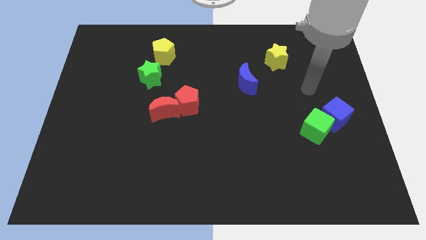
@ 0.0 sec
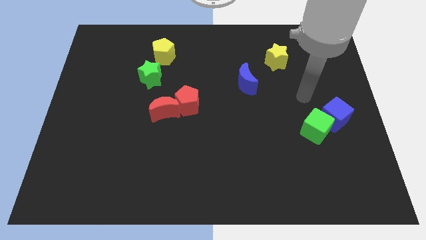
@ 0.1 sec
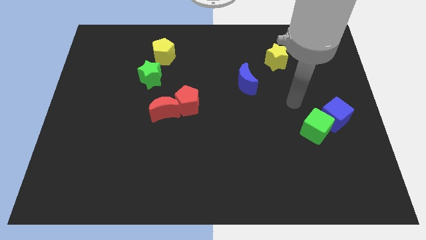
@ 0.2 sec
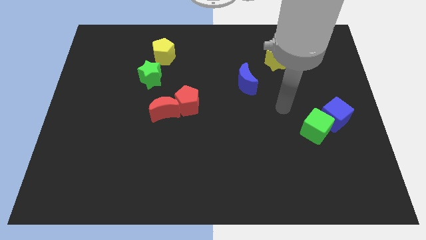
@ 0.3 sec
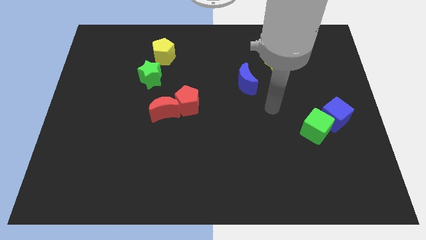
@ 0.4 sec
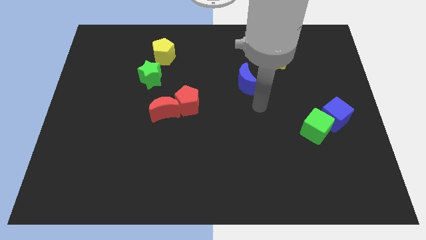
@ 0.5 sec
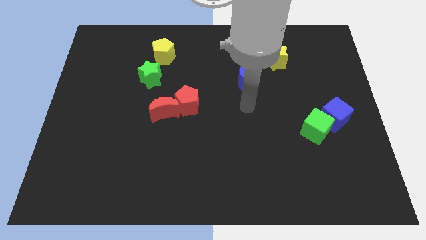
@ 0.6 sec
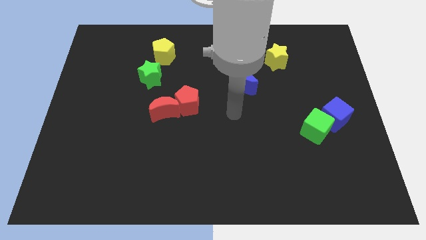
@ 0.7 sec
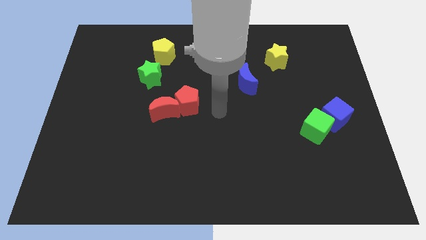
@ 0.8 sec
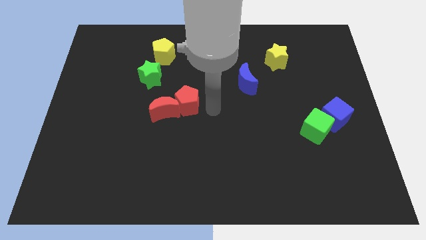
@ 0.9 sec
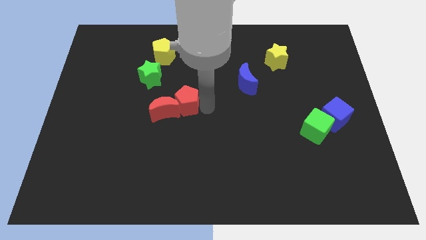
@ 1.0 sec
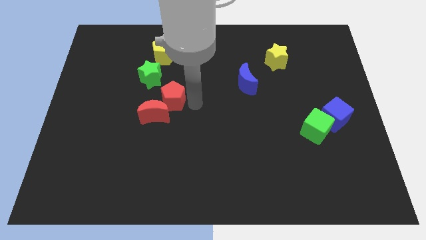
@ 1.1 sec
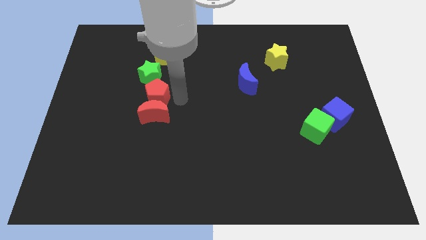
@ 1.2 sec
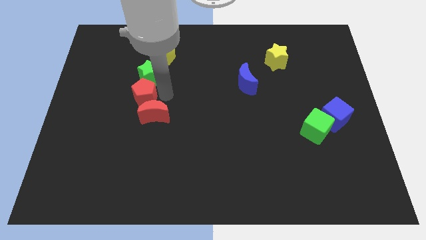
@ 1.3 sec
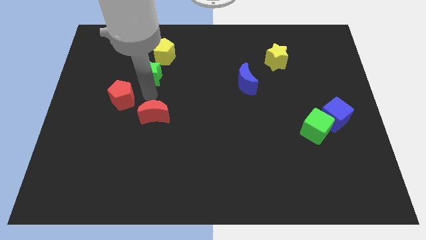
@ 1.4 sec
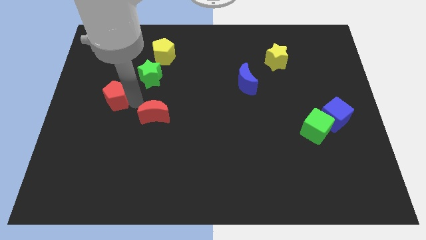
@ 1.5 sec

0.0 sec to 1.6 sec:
separate the red moon from the red pentagon

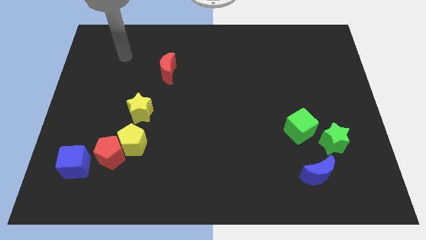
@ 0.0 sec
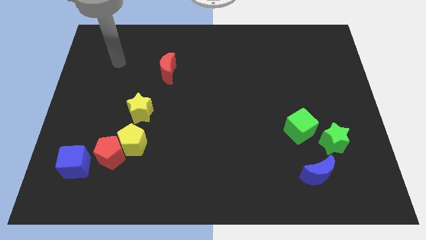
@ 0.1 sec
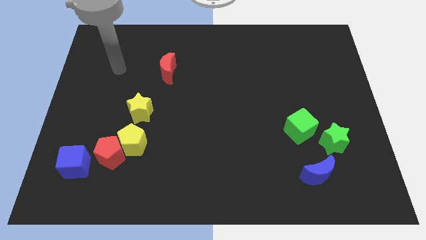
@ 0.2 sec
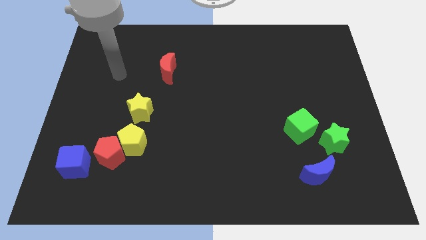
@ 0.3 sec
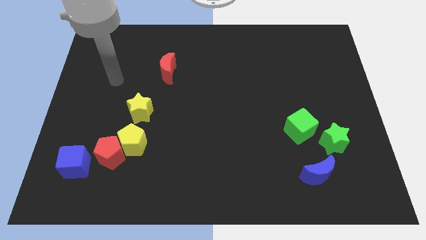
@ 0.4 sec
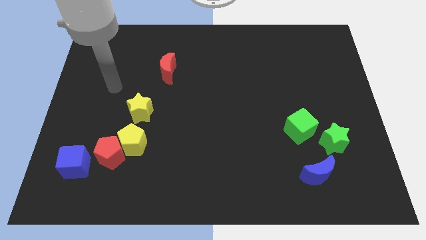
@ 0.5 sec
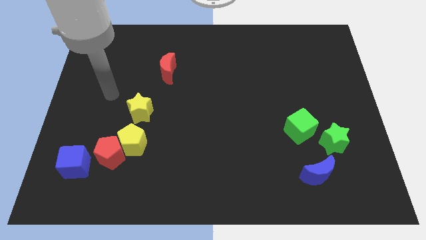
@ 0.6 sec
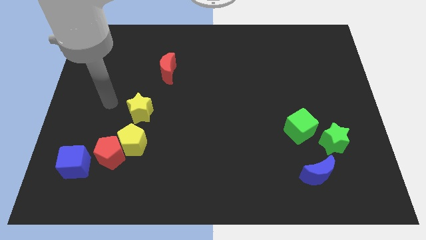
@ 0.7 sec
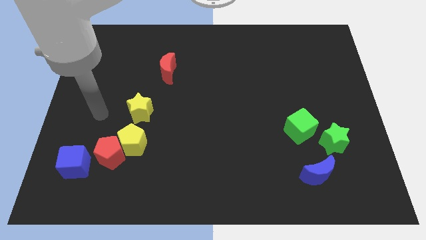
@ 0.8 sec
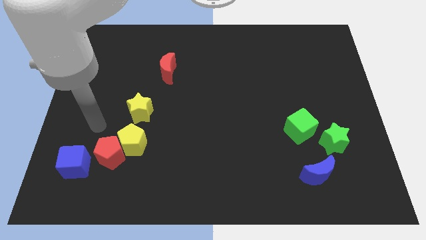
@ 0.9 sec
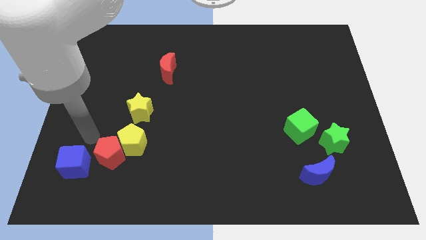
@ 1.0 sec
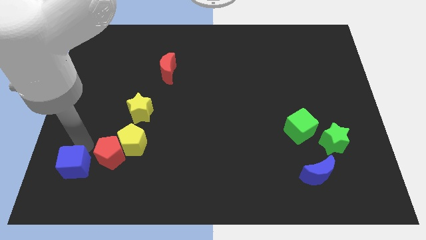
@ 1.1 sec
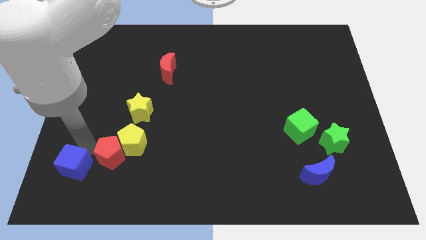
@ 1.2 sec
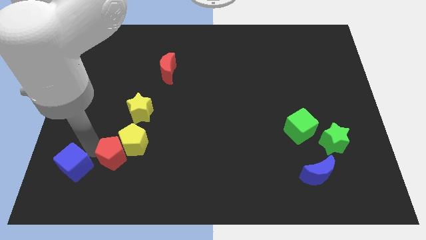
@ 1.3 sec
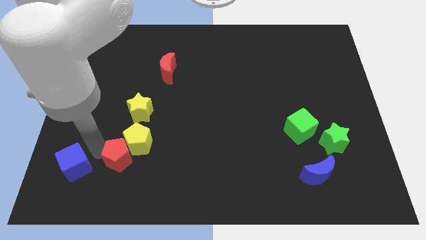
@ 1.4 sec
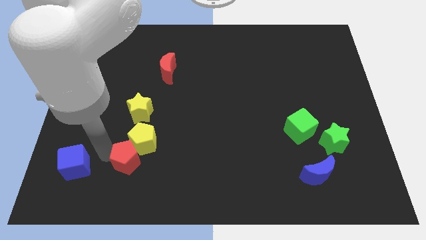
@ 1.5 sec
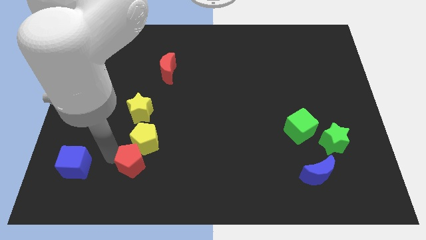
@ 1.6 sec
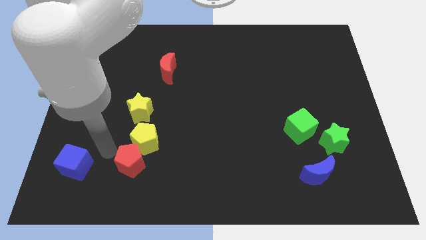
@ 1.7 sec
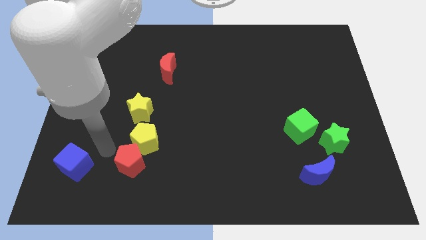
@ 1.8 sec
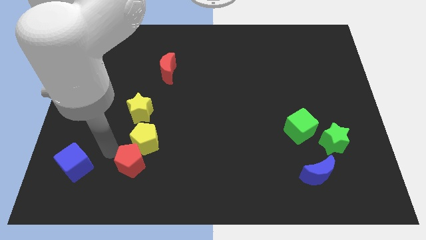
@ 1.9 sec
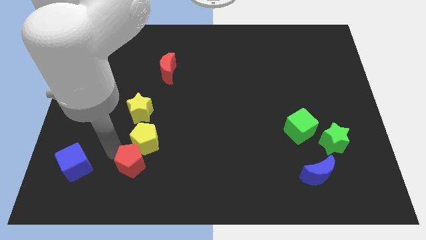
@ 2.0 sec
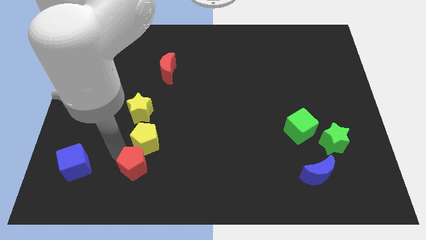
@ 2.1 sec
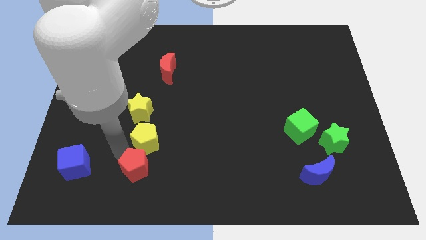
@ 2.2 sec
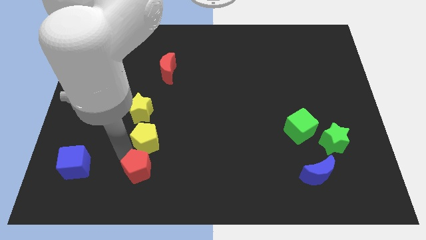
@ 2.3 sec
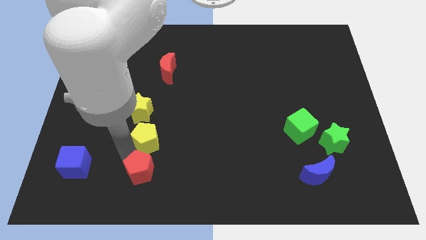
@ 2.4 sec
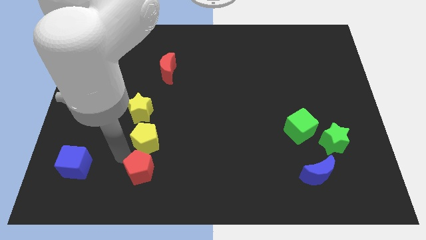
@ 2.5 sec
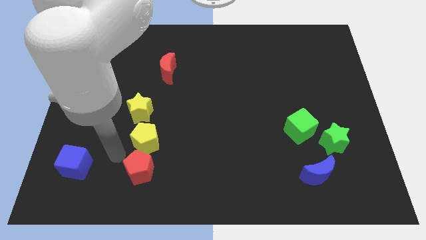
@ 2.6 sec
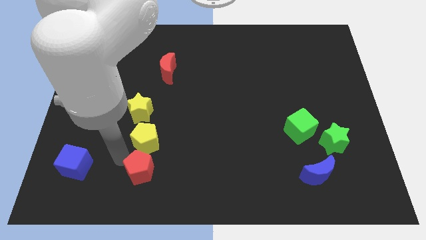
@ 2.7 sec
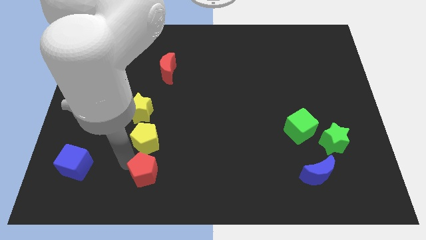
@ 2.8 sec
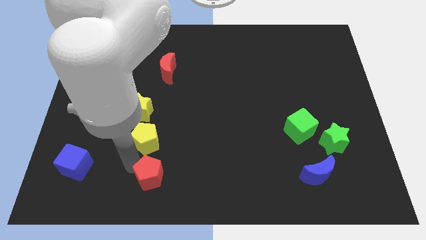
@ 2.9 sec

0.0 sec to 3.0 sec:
pull the red pentagon apart from the yellow pentagon and blue cube

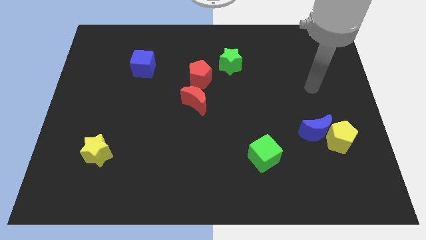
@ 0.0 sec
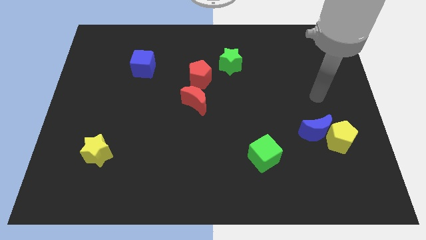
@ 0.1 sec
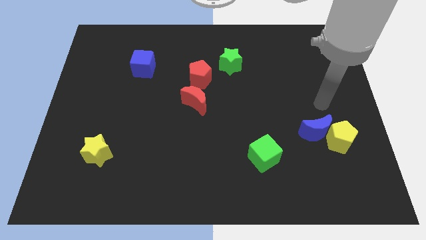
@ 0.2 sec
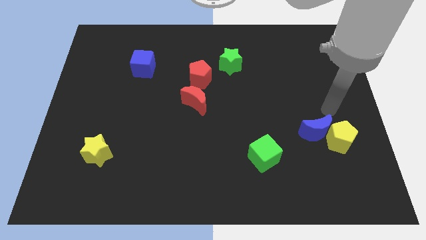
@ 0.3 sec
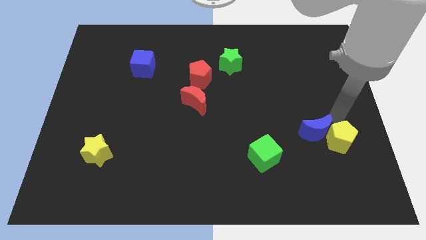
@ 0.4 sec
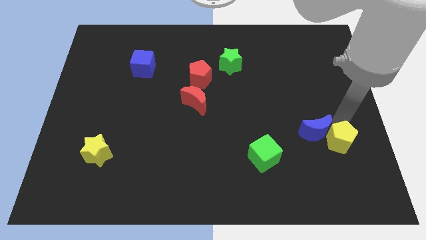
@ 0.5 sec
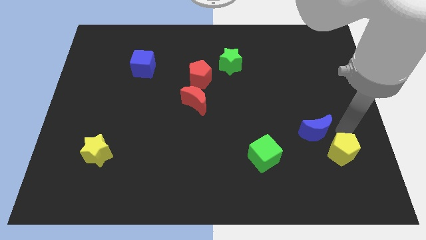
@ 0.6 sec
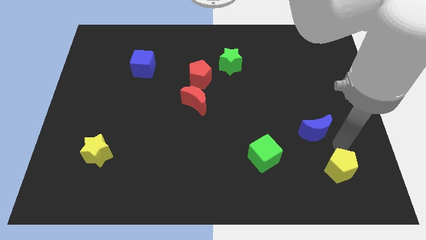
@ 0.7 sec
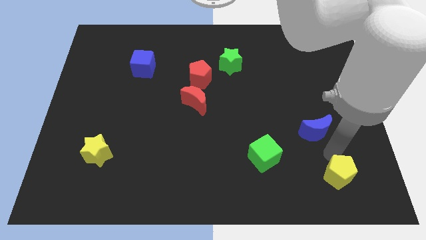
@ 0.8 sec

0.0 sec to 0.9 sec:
pull the blue moon apart from the yellow pentagon

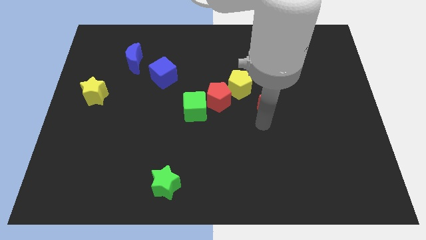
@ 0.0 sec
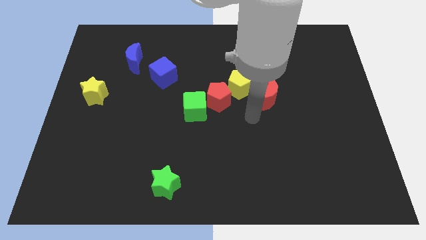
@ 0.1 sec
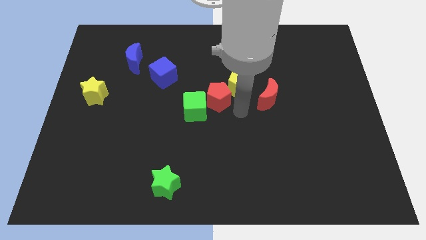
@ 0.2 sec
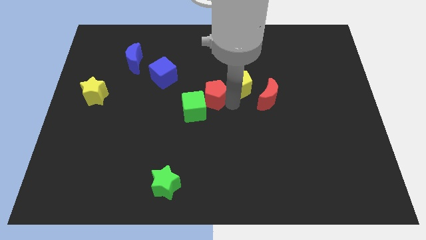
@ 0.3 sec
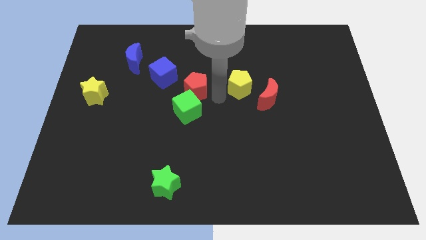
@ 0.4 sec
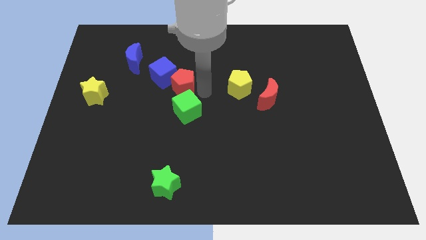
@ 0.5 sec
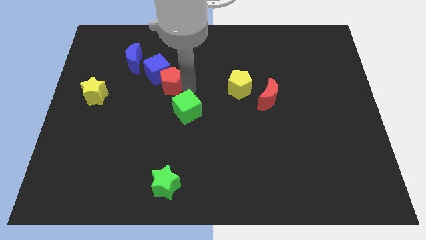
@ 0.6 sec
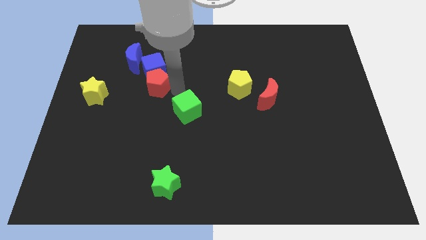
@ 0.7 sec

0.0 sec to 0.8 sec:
pull the green cube apart from the red pentagon

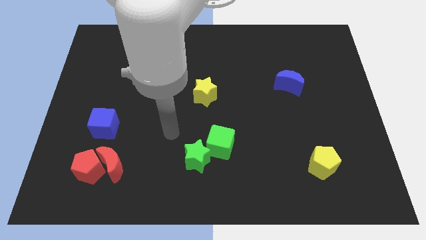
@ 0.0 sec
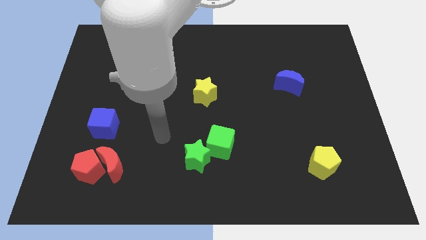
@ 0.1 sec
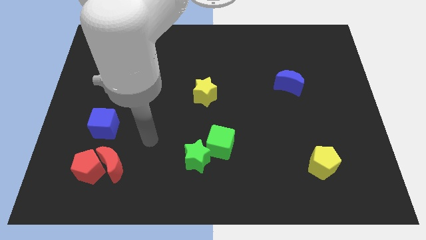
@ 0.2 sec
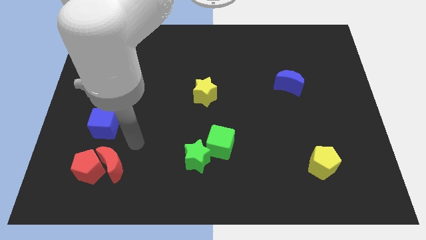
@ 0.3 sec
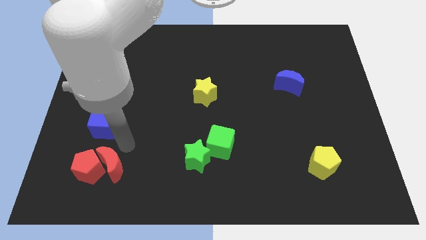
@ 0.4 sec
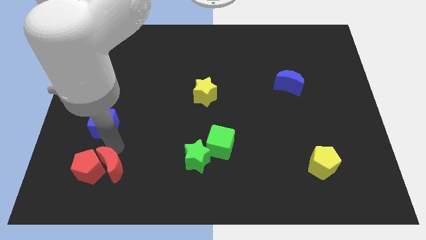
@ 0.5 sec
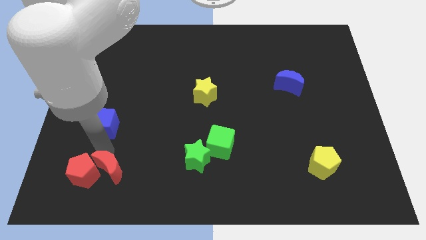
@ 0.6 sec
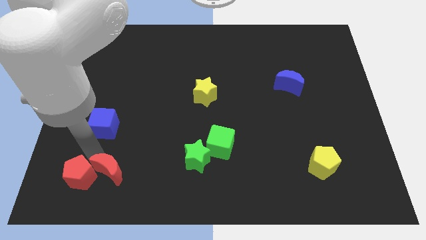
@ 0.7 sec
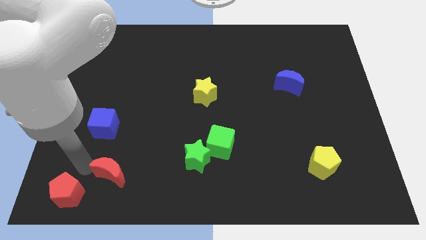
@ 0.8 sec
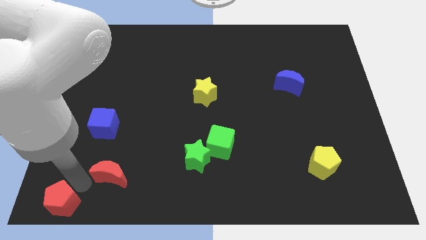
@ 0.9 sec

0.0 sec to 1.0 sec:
move the red moon away from the red pentagon

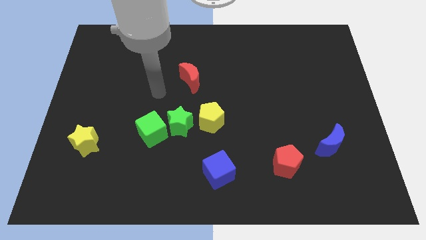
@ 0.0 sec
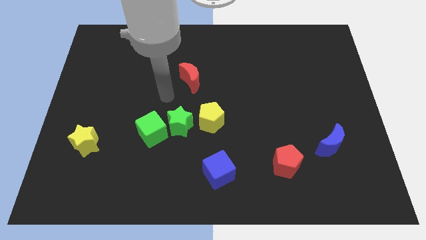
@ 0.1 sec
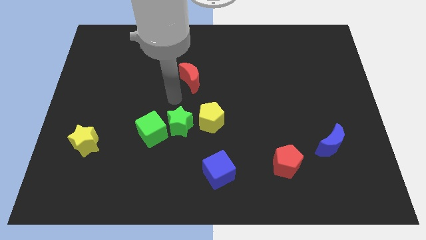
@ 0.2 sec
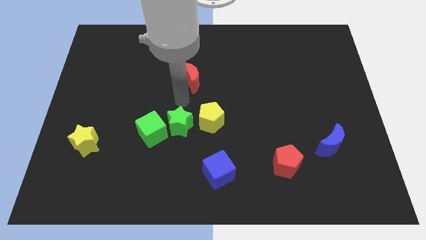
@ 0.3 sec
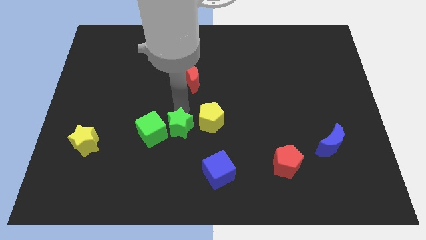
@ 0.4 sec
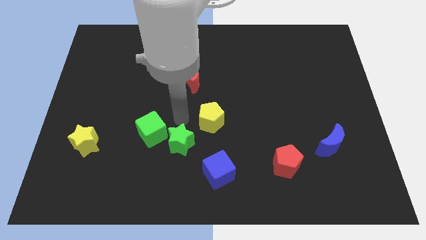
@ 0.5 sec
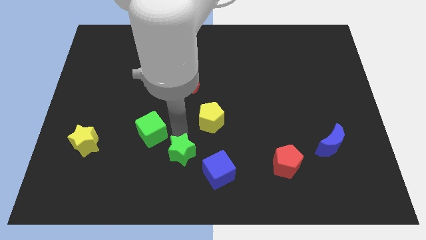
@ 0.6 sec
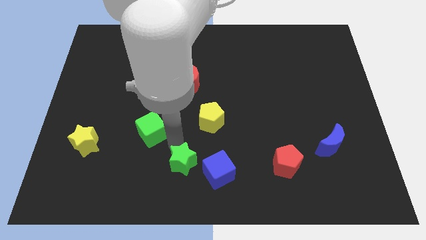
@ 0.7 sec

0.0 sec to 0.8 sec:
separate the green cube from the green star

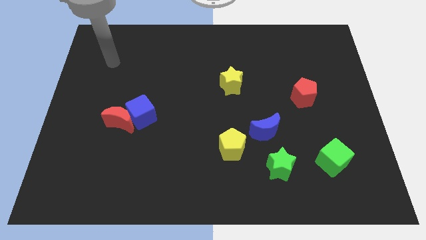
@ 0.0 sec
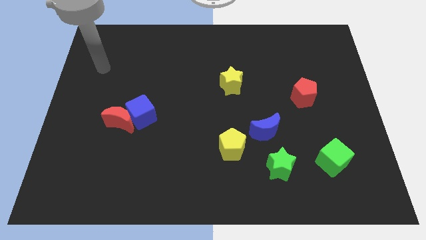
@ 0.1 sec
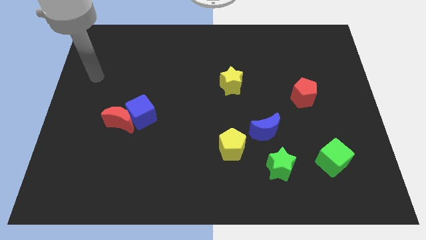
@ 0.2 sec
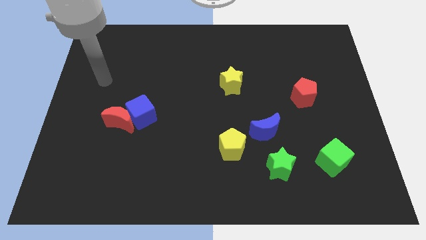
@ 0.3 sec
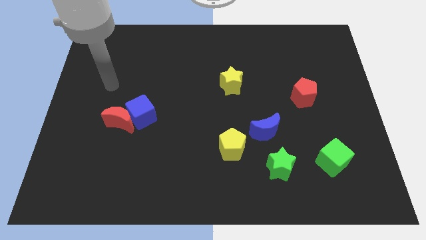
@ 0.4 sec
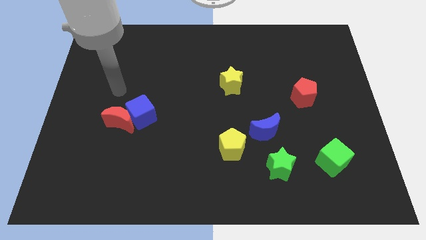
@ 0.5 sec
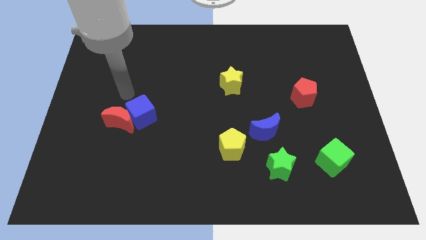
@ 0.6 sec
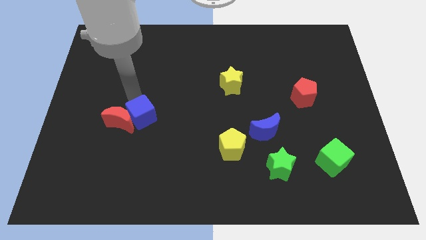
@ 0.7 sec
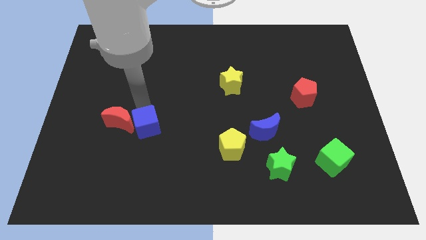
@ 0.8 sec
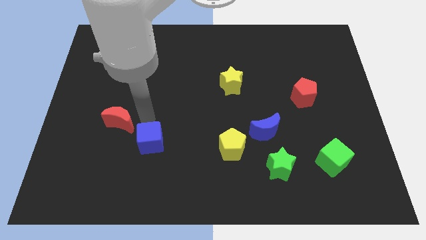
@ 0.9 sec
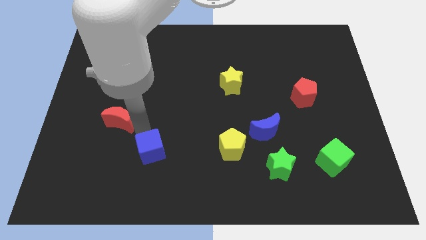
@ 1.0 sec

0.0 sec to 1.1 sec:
pull the red moon apart from the blue cube
